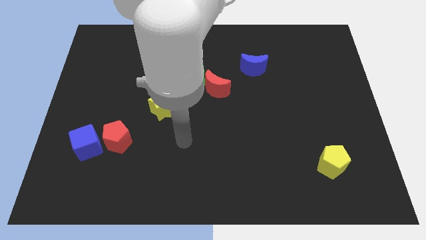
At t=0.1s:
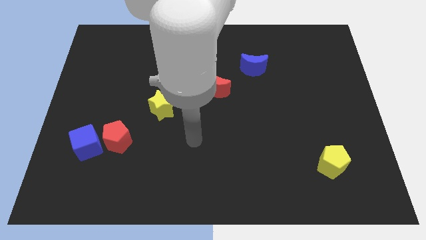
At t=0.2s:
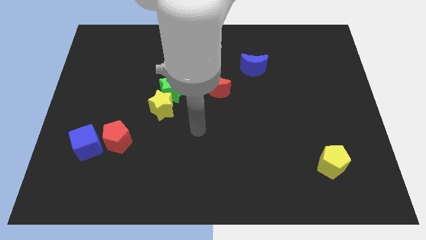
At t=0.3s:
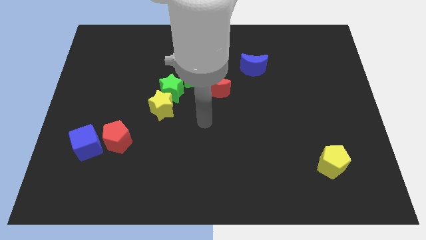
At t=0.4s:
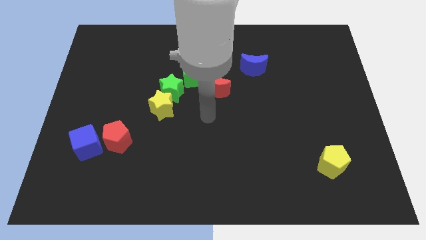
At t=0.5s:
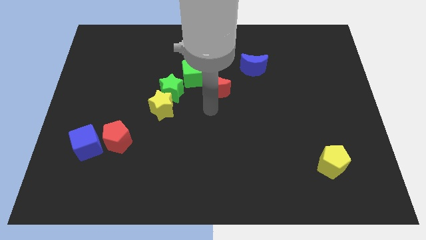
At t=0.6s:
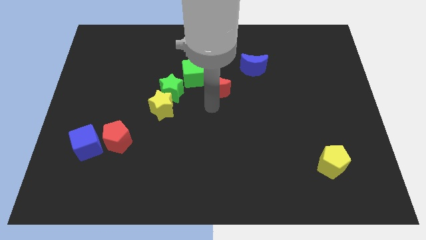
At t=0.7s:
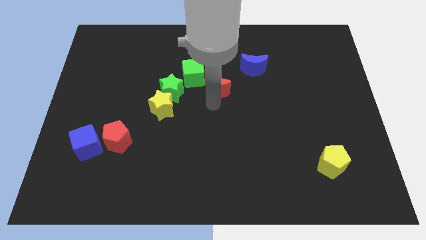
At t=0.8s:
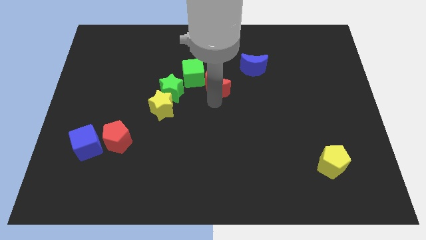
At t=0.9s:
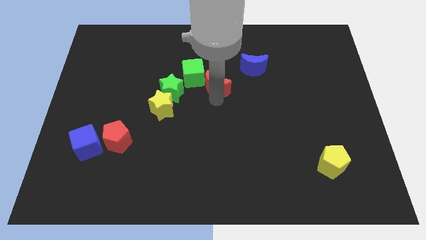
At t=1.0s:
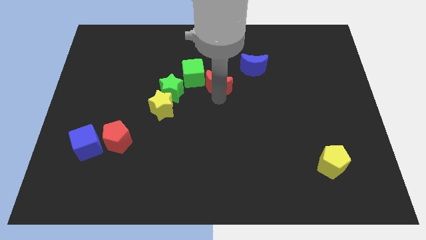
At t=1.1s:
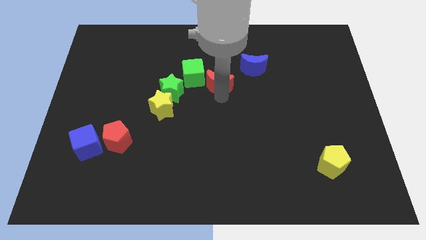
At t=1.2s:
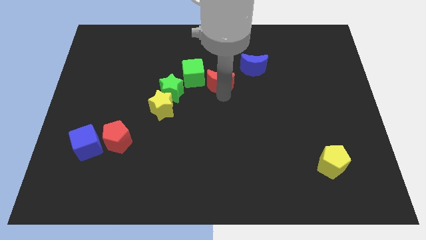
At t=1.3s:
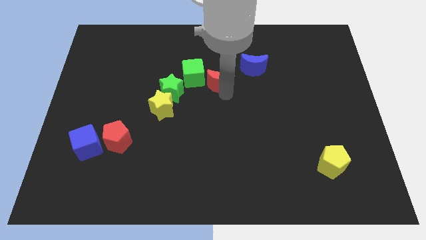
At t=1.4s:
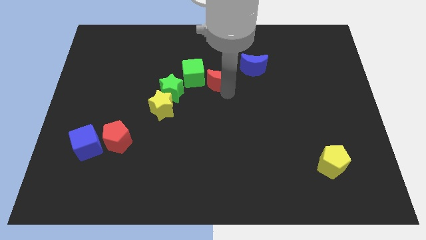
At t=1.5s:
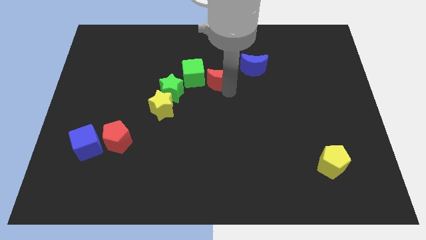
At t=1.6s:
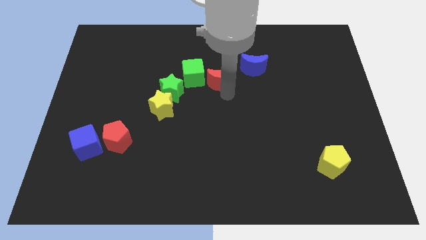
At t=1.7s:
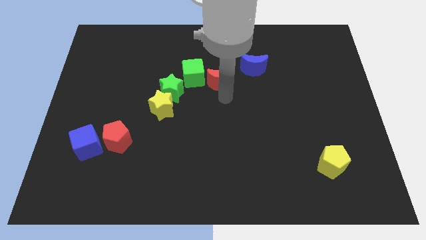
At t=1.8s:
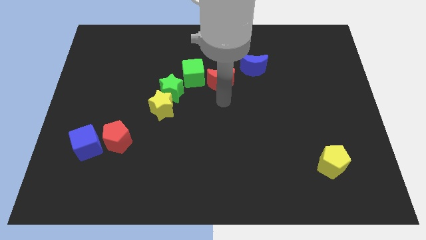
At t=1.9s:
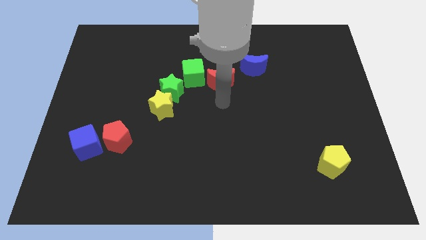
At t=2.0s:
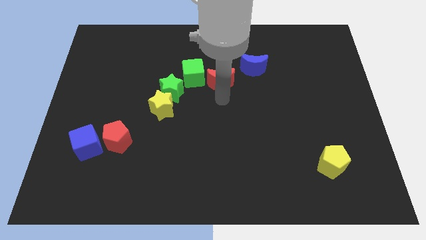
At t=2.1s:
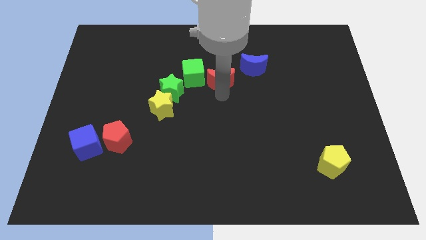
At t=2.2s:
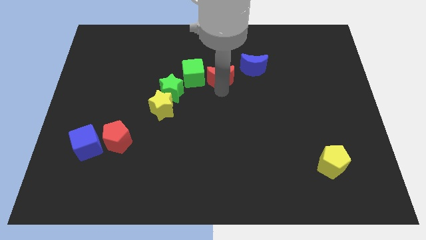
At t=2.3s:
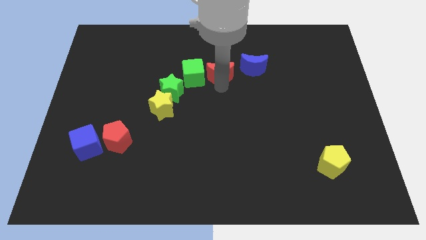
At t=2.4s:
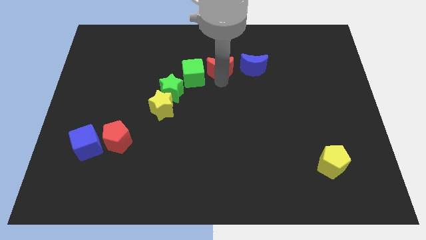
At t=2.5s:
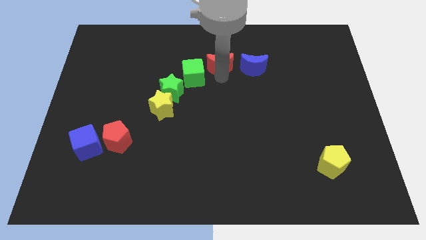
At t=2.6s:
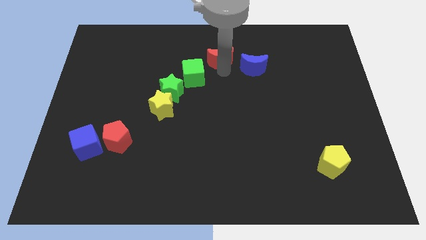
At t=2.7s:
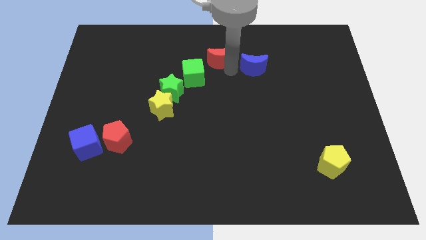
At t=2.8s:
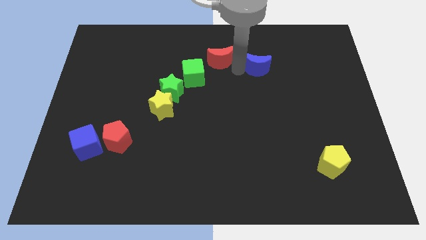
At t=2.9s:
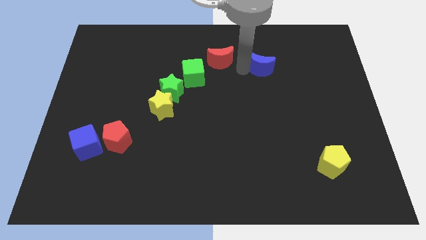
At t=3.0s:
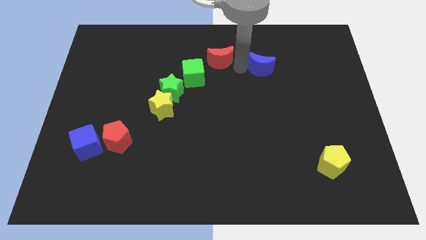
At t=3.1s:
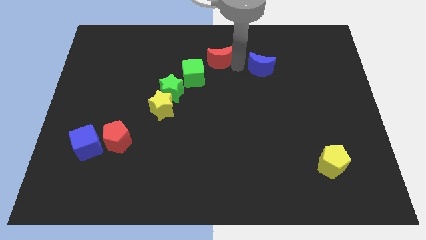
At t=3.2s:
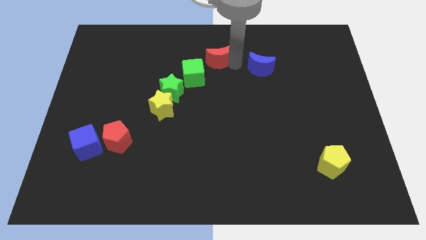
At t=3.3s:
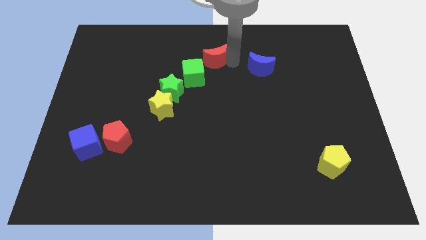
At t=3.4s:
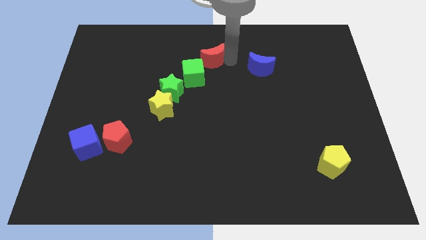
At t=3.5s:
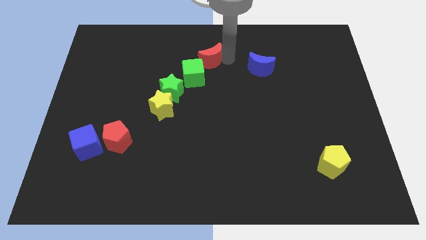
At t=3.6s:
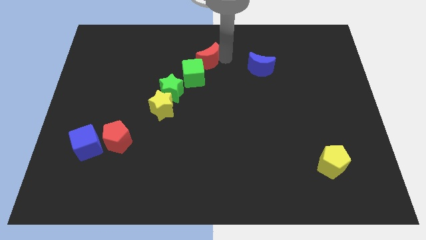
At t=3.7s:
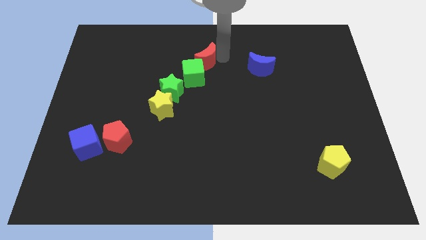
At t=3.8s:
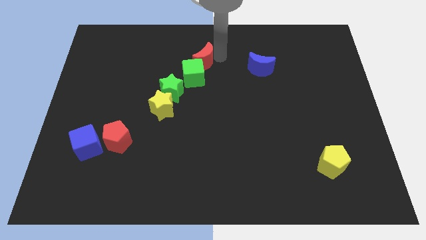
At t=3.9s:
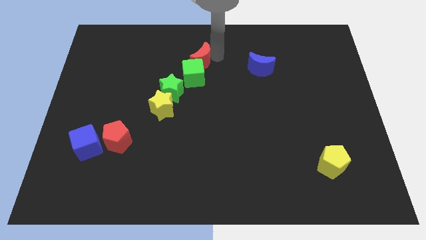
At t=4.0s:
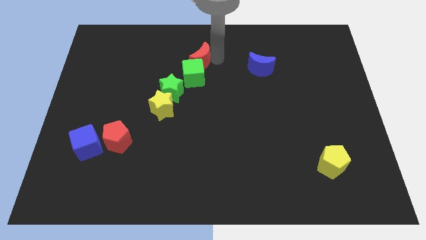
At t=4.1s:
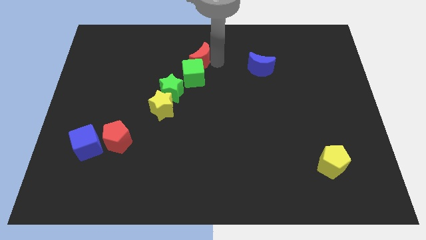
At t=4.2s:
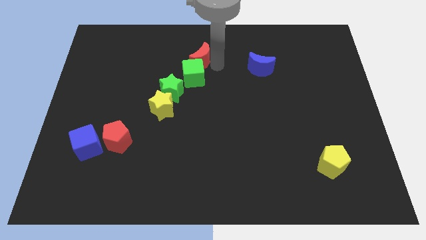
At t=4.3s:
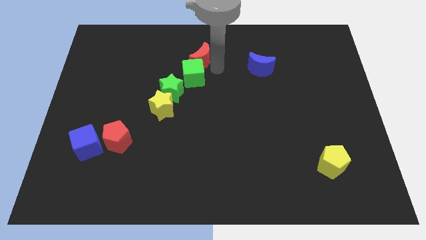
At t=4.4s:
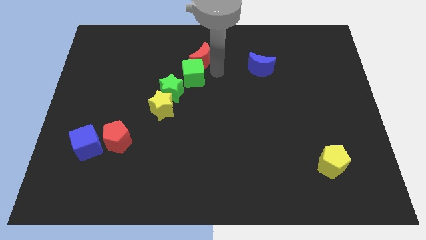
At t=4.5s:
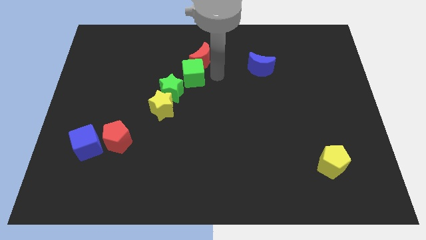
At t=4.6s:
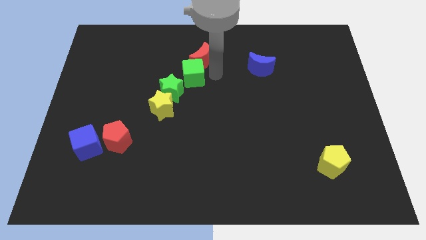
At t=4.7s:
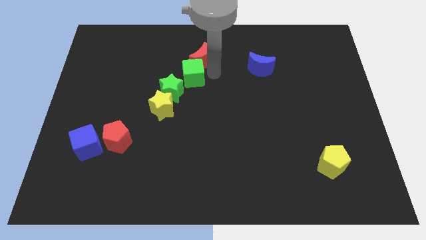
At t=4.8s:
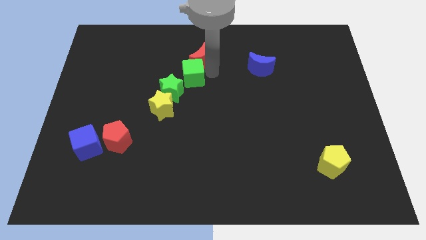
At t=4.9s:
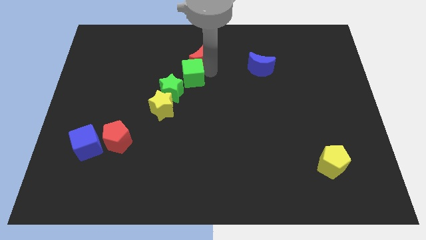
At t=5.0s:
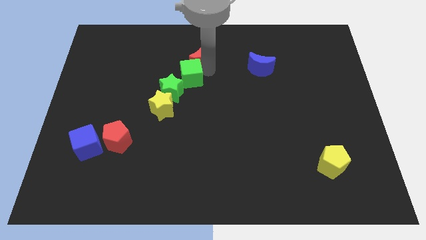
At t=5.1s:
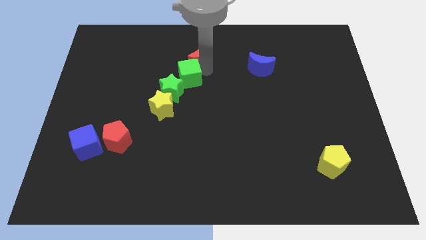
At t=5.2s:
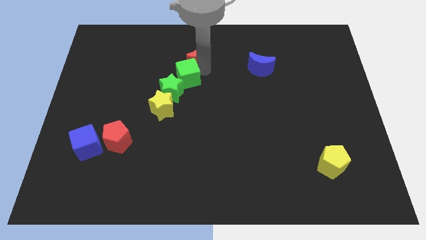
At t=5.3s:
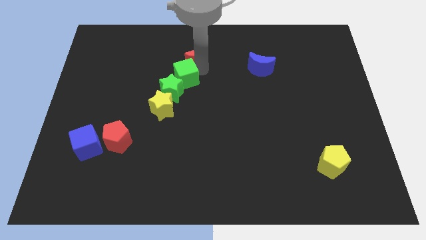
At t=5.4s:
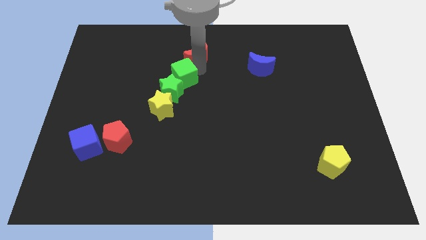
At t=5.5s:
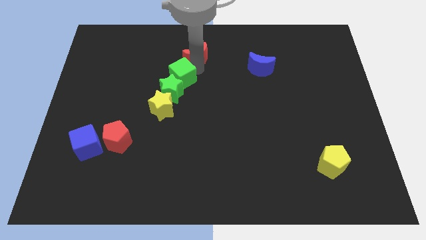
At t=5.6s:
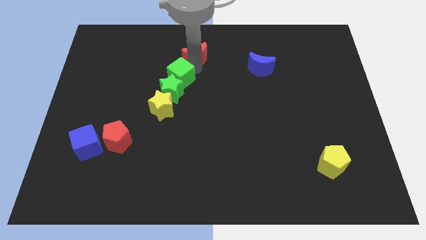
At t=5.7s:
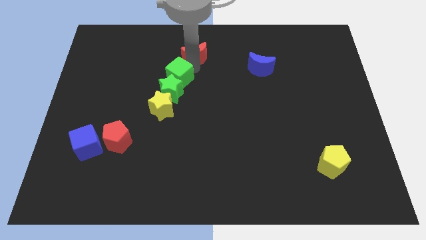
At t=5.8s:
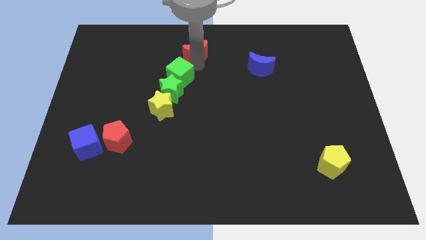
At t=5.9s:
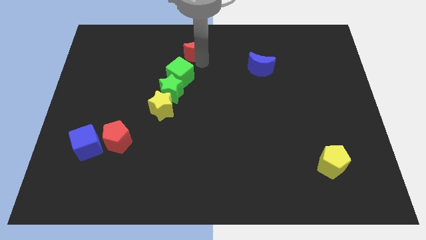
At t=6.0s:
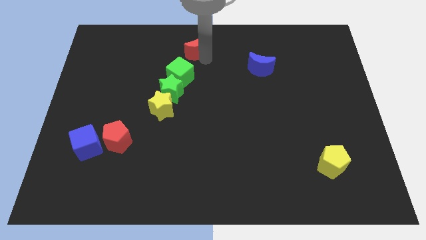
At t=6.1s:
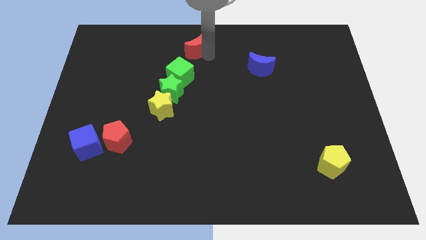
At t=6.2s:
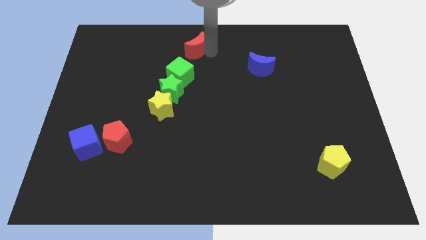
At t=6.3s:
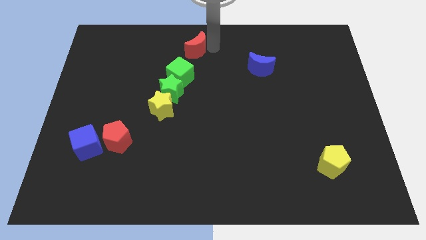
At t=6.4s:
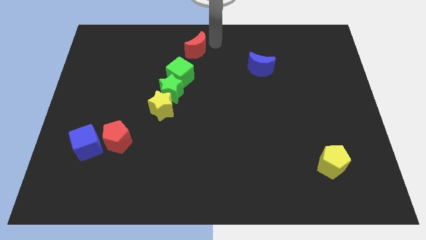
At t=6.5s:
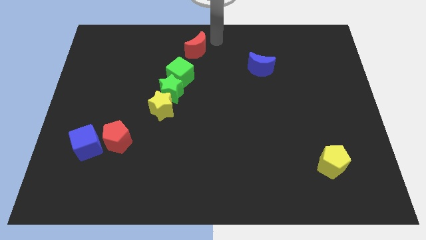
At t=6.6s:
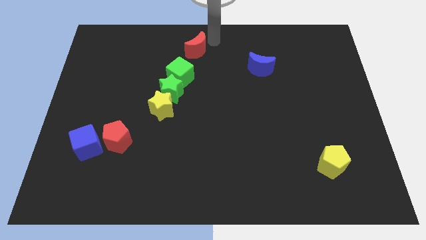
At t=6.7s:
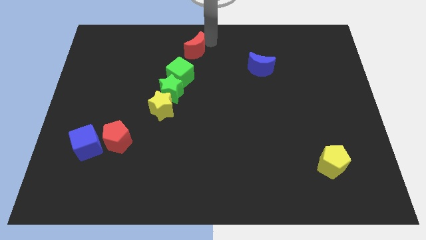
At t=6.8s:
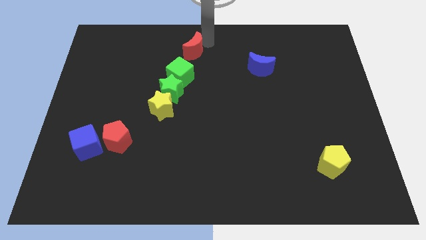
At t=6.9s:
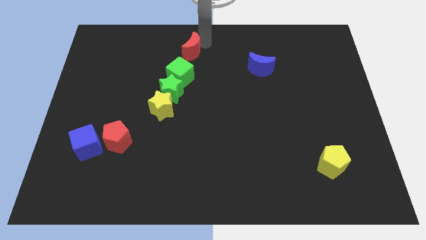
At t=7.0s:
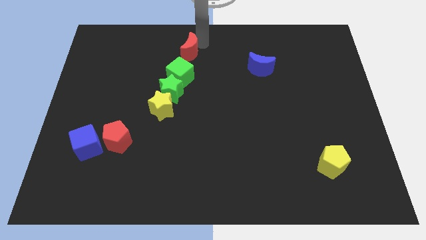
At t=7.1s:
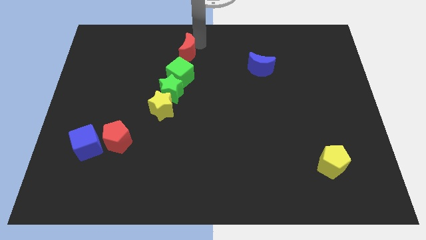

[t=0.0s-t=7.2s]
move the red moon to the top side of the green star
